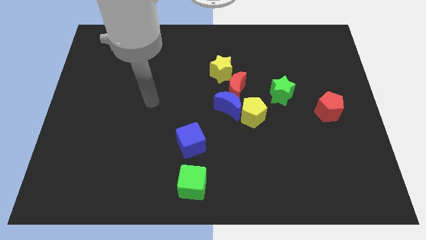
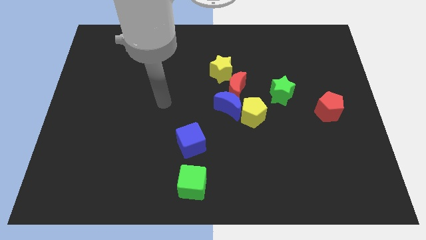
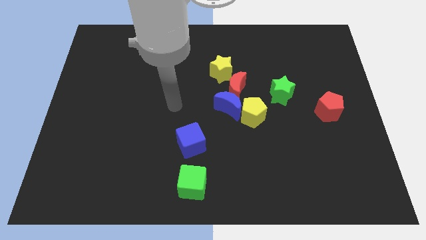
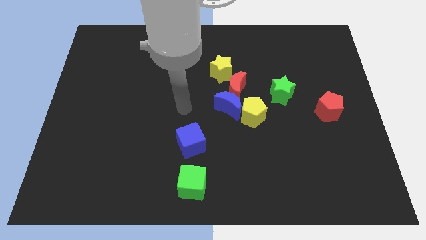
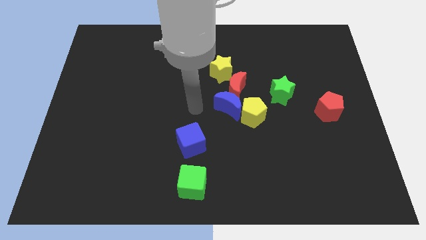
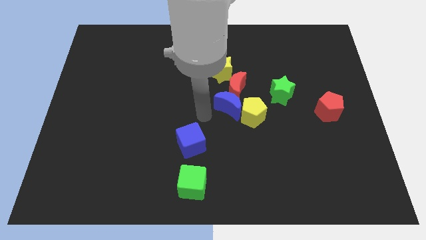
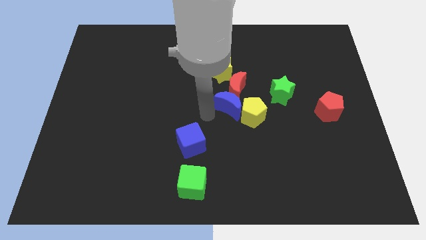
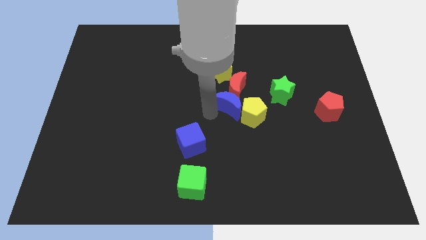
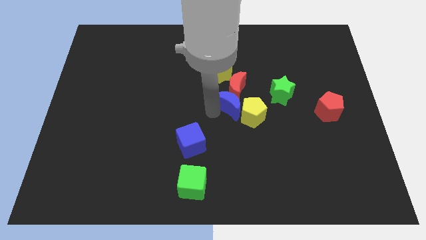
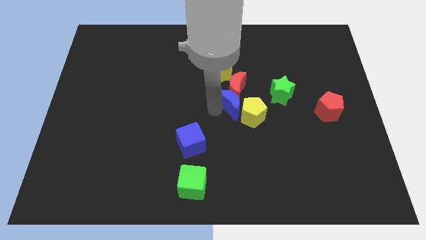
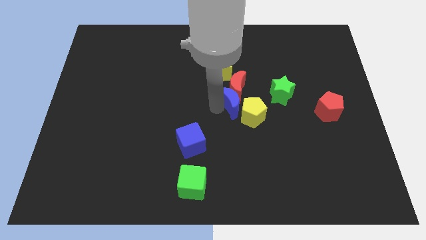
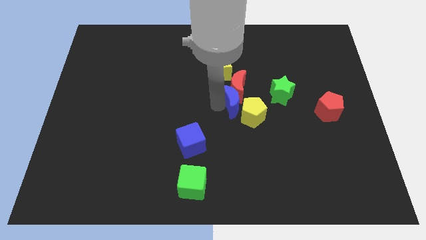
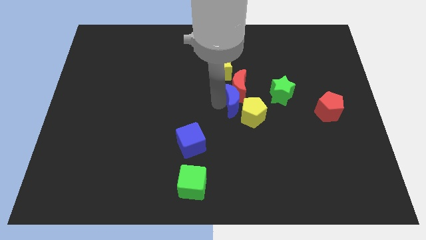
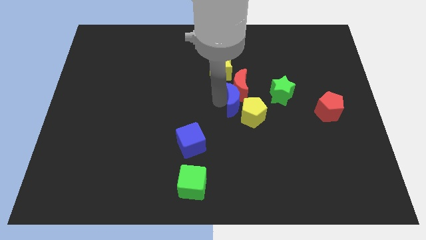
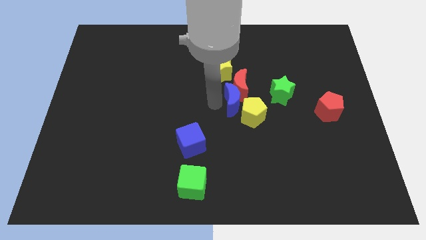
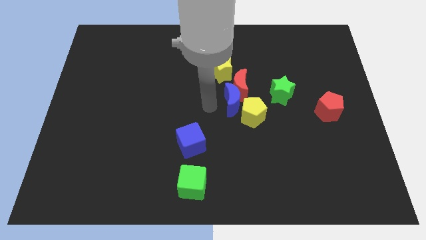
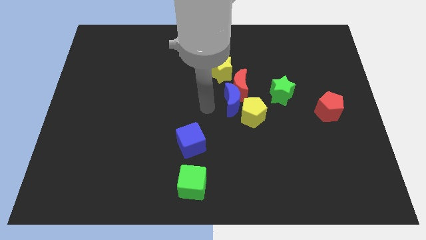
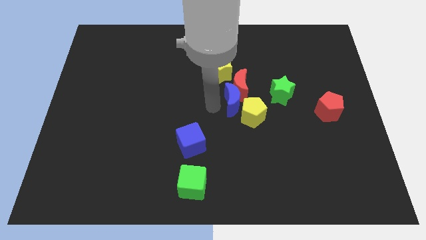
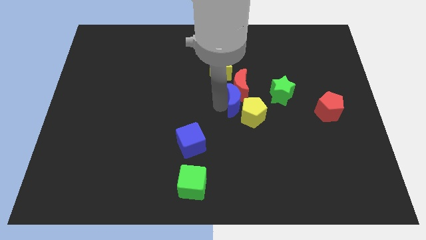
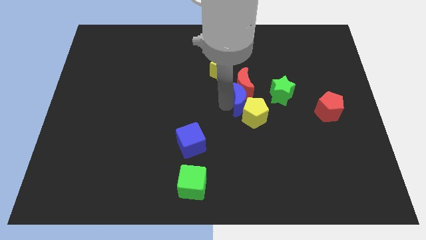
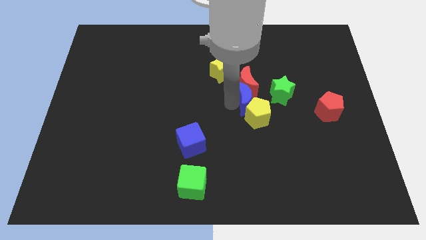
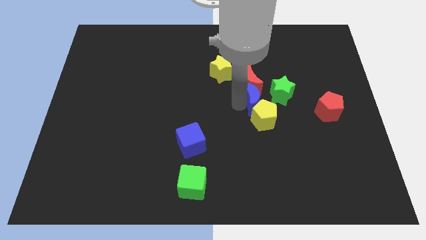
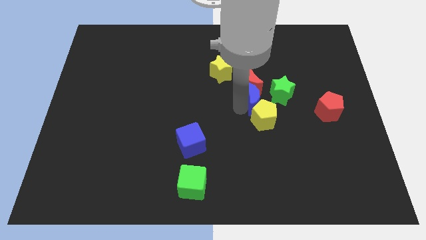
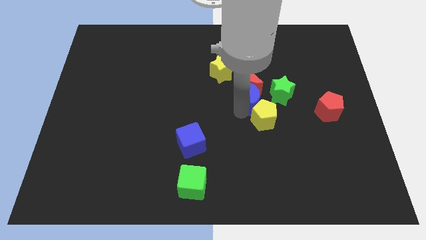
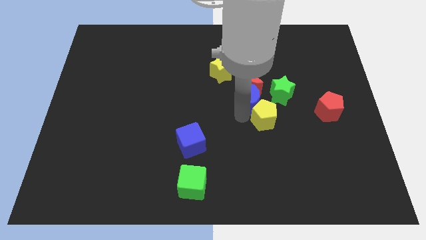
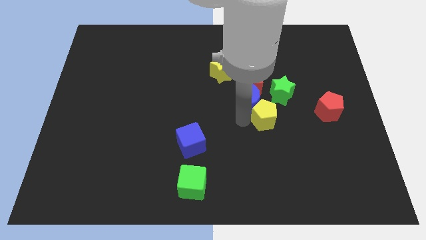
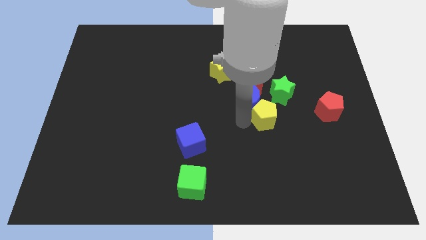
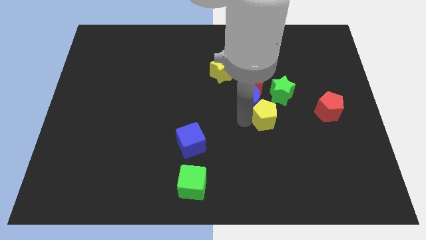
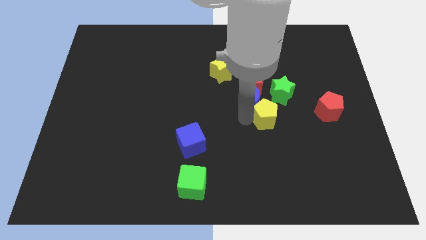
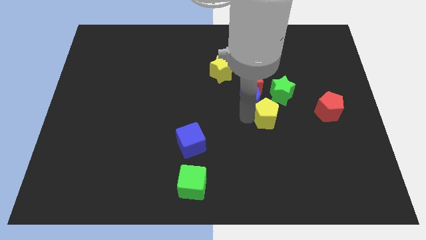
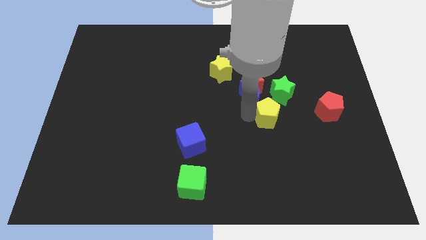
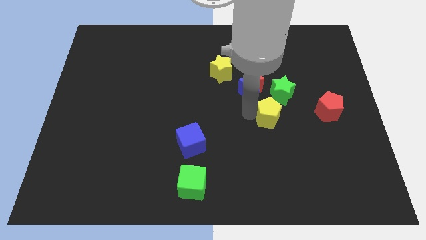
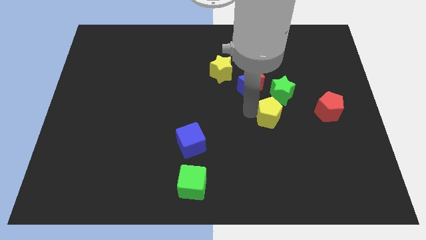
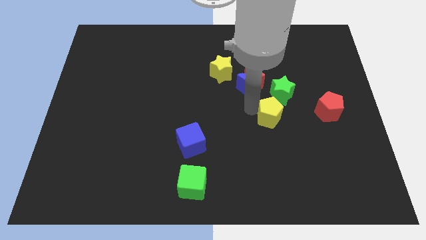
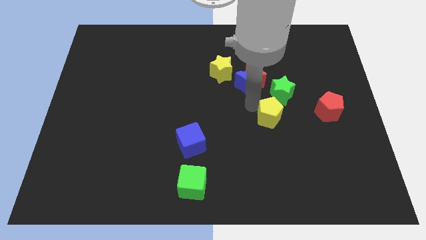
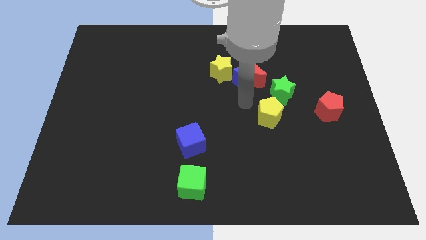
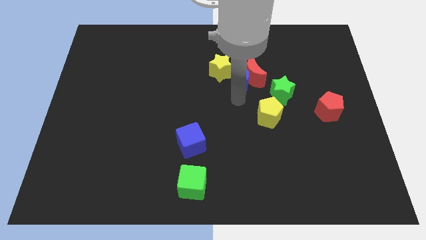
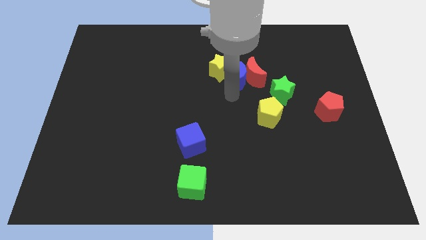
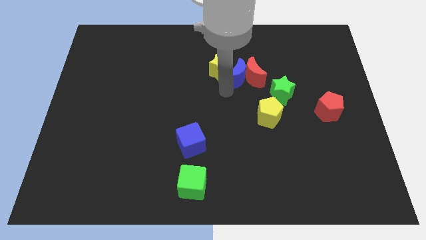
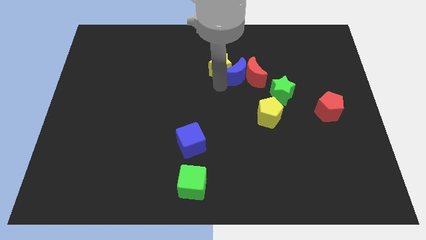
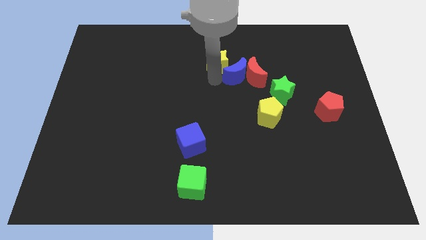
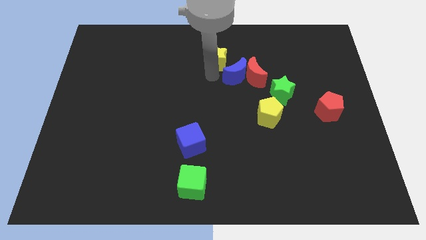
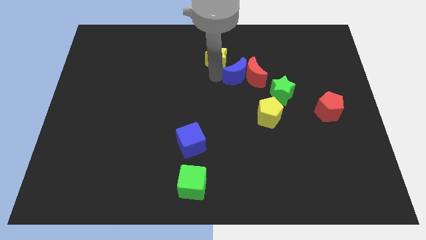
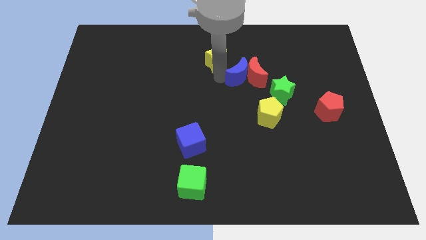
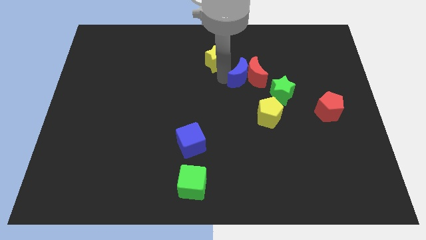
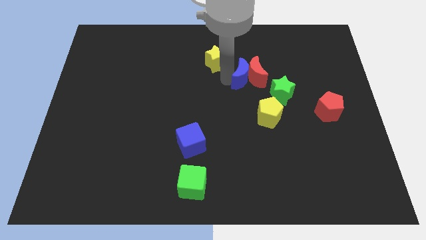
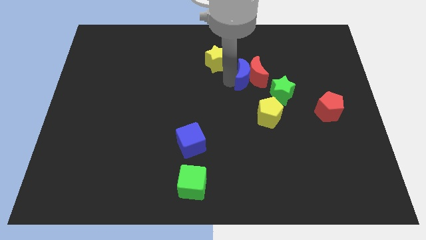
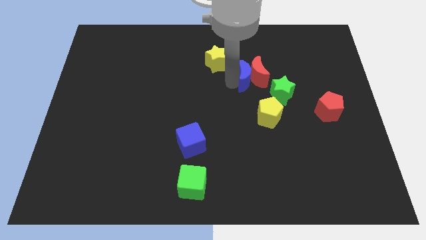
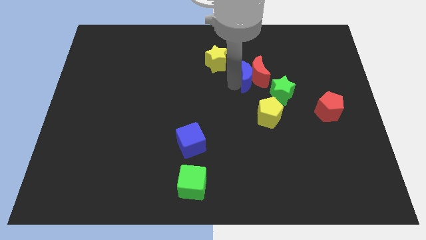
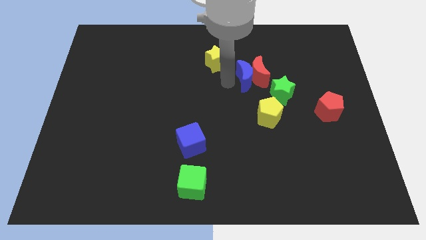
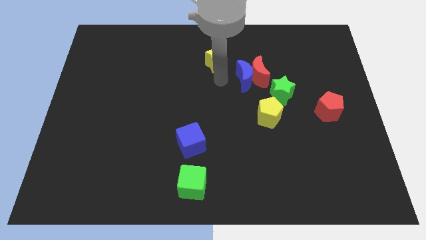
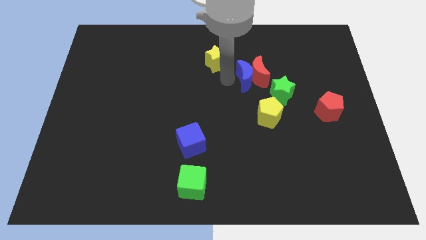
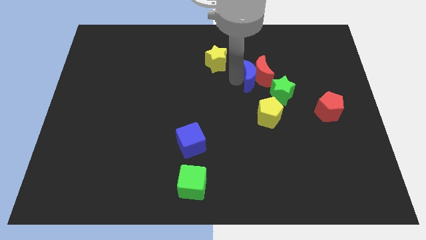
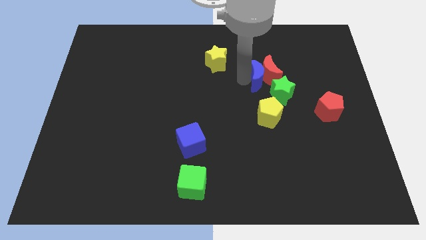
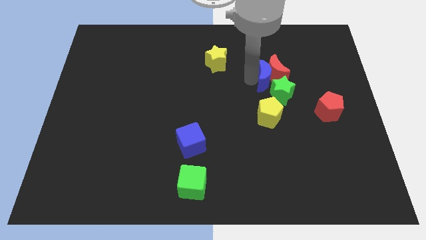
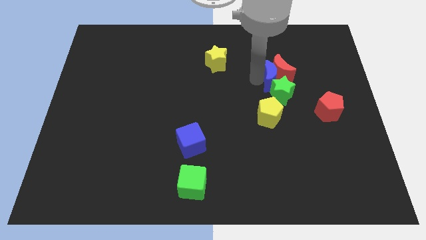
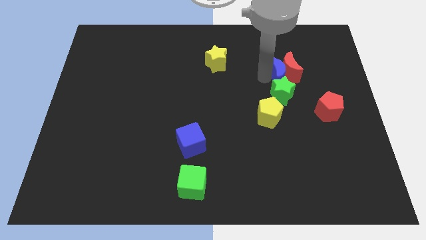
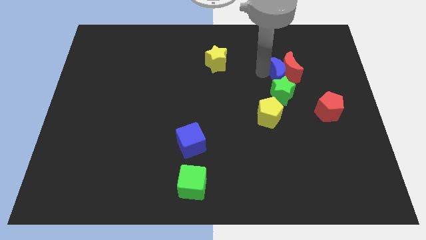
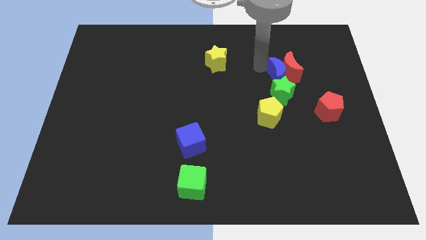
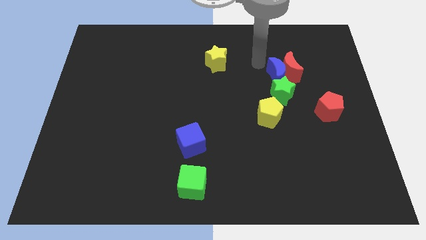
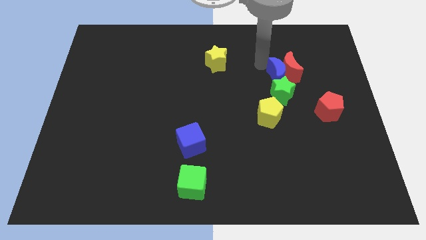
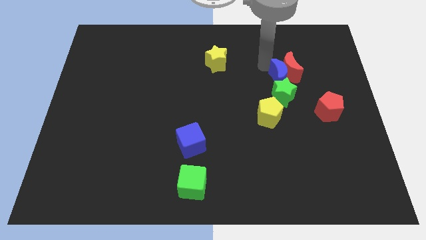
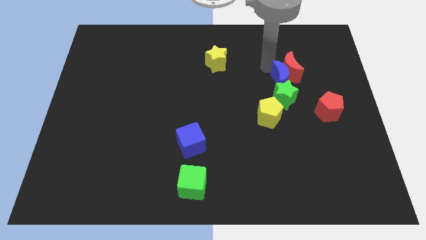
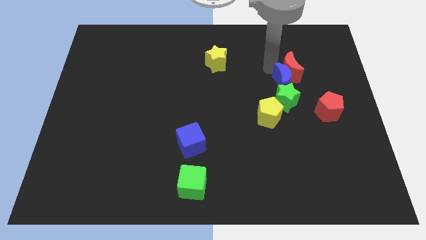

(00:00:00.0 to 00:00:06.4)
push the blue moon to the top left of the red pentagon
